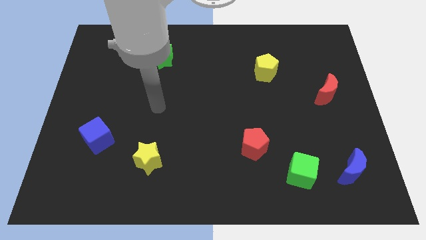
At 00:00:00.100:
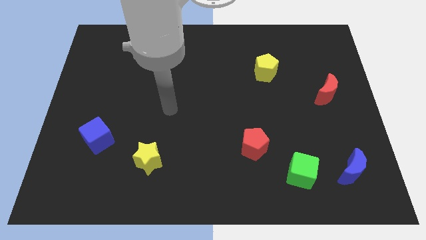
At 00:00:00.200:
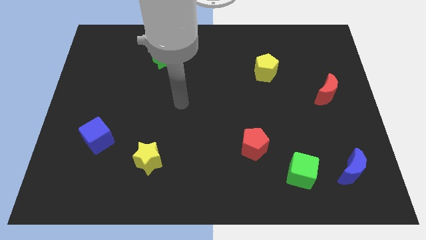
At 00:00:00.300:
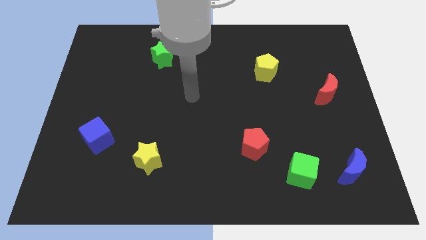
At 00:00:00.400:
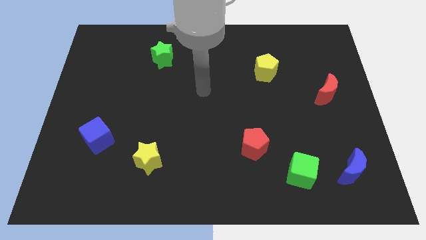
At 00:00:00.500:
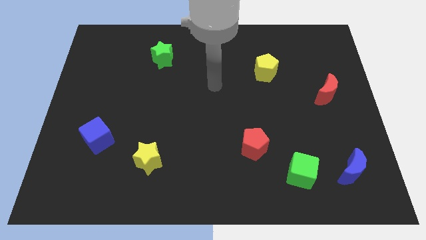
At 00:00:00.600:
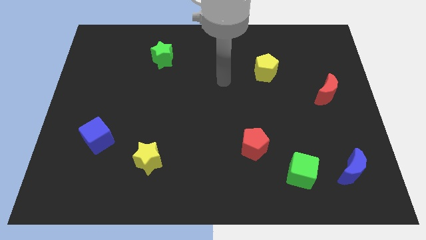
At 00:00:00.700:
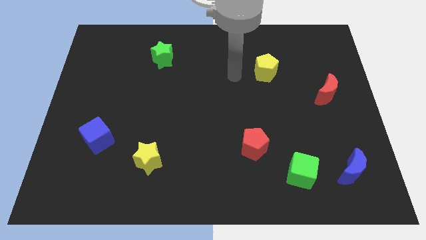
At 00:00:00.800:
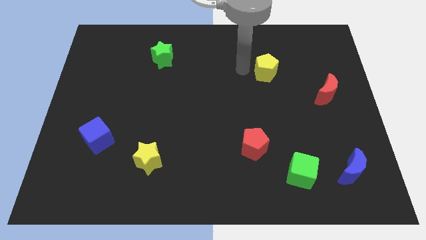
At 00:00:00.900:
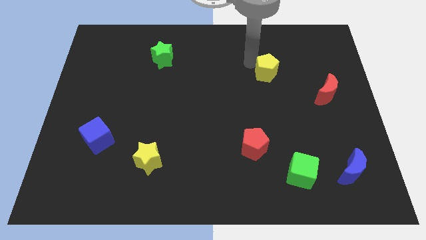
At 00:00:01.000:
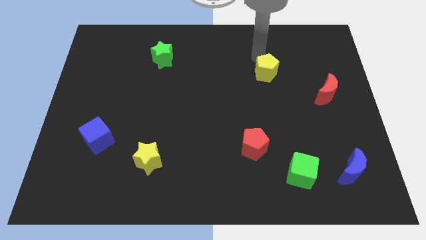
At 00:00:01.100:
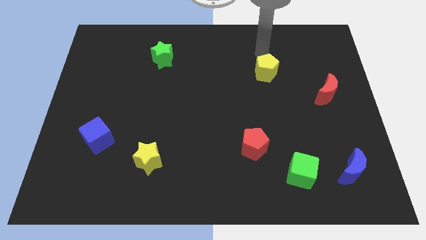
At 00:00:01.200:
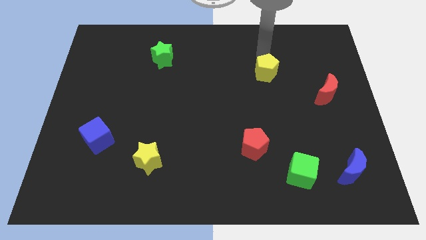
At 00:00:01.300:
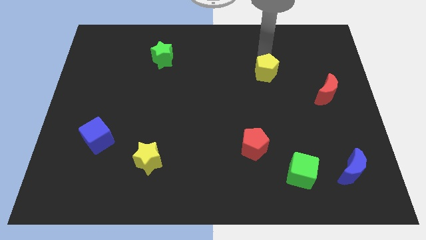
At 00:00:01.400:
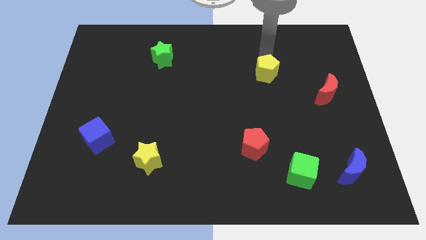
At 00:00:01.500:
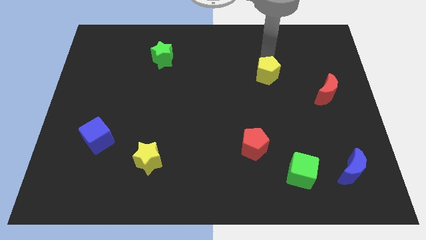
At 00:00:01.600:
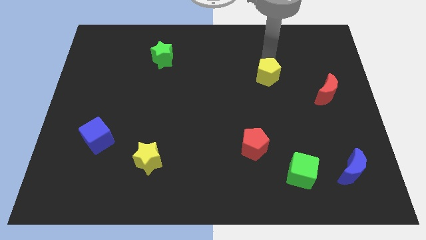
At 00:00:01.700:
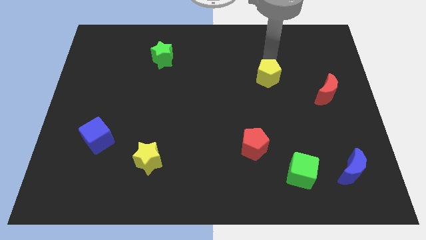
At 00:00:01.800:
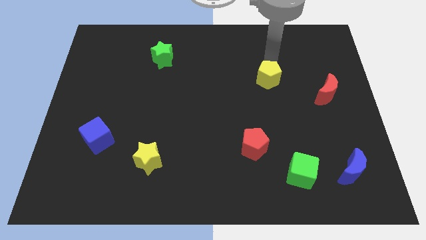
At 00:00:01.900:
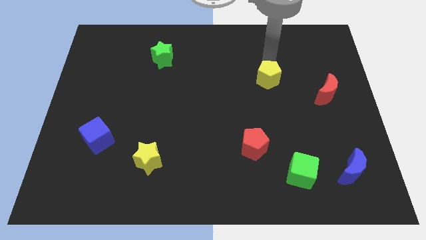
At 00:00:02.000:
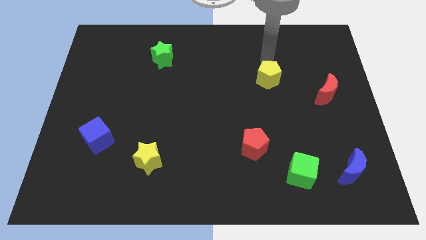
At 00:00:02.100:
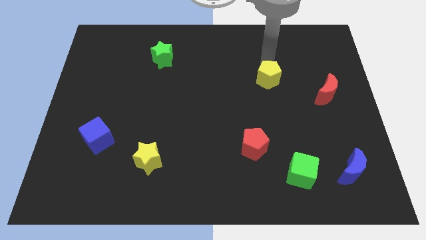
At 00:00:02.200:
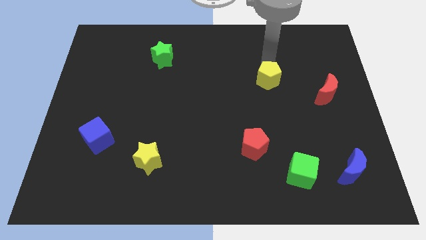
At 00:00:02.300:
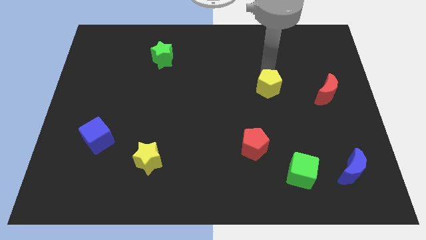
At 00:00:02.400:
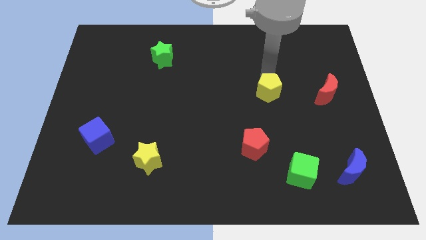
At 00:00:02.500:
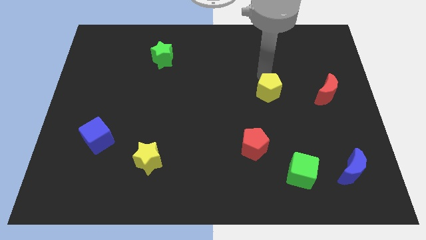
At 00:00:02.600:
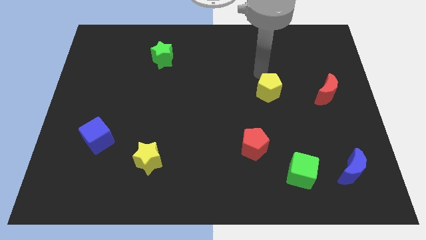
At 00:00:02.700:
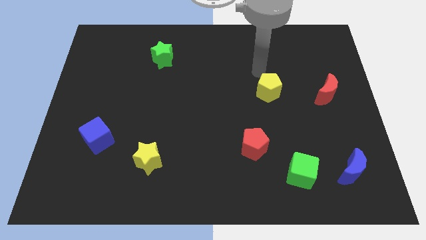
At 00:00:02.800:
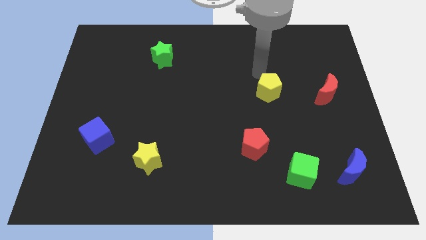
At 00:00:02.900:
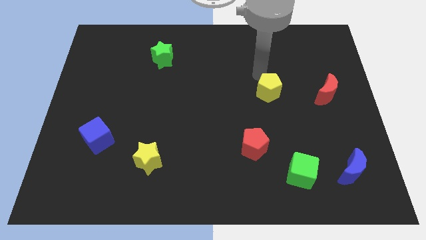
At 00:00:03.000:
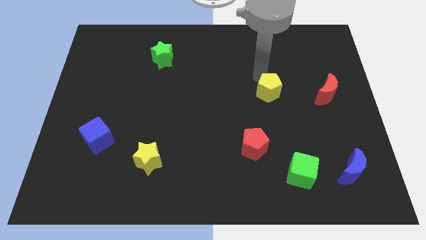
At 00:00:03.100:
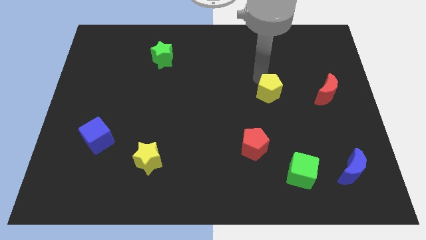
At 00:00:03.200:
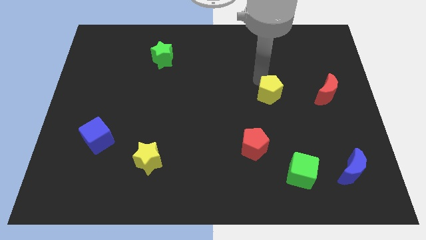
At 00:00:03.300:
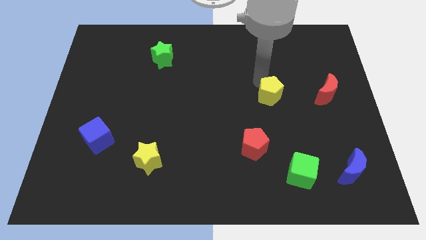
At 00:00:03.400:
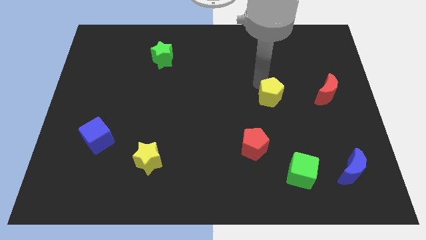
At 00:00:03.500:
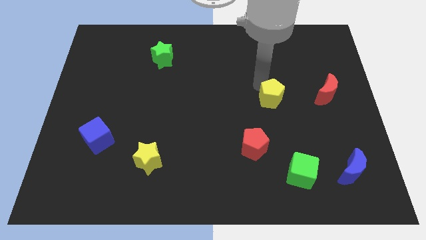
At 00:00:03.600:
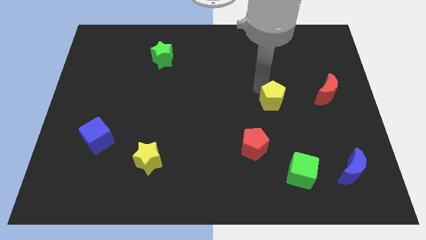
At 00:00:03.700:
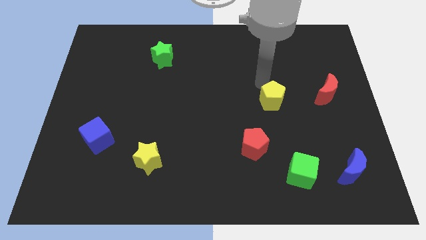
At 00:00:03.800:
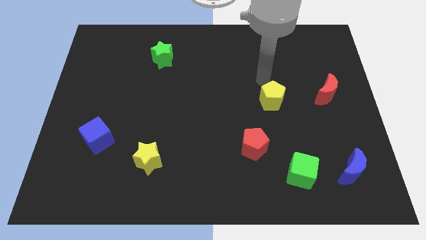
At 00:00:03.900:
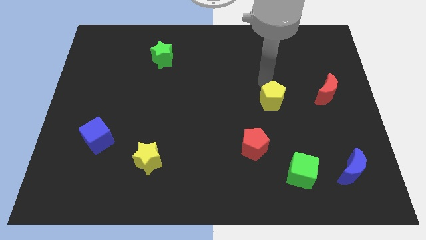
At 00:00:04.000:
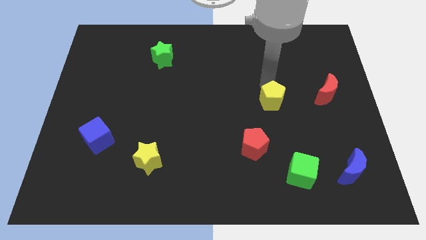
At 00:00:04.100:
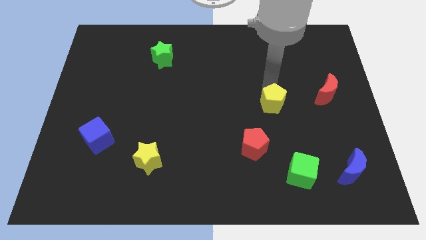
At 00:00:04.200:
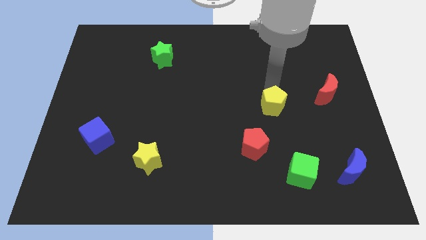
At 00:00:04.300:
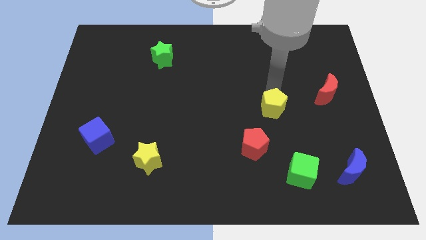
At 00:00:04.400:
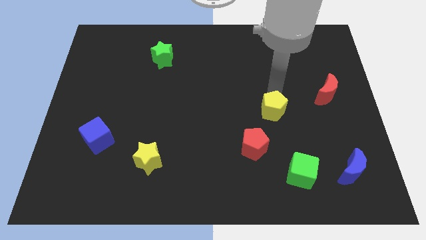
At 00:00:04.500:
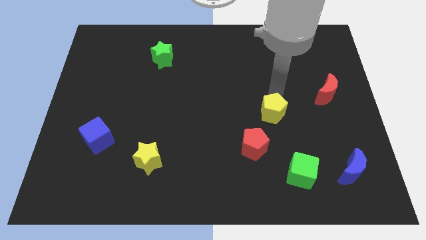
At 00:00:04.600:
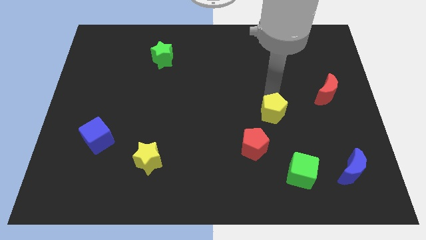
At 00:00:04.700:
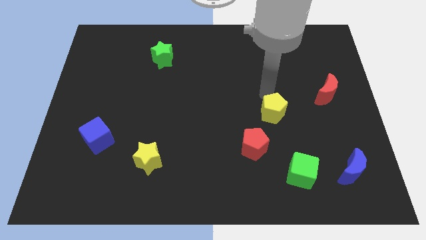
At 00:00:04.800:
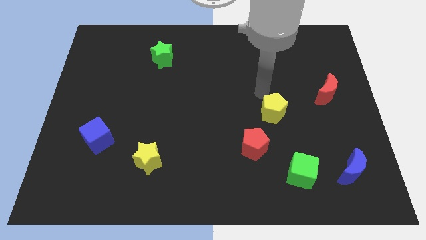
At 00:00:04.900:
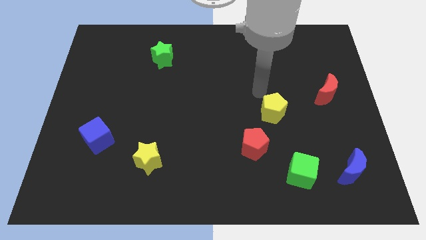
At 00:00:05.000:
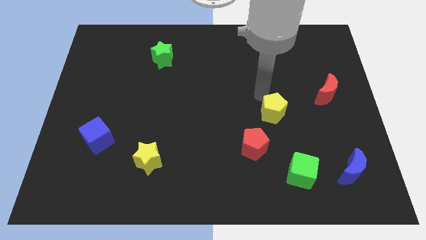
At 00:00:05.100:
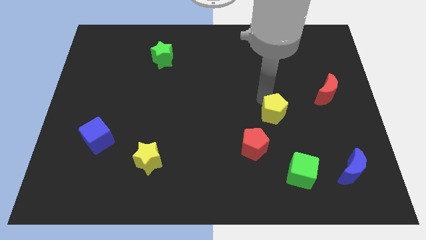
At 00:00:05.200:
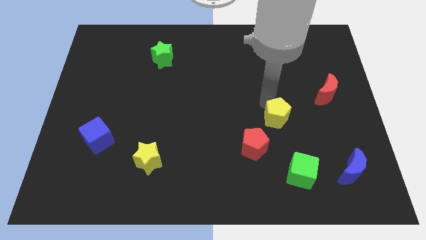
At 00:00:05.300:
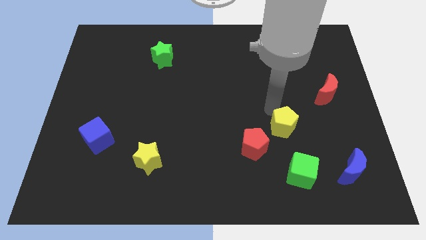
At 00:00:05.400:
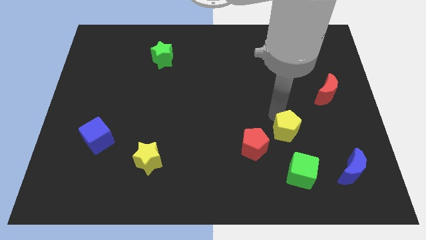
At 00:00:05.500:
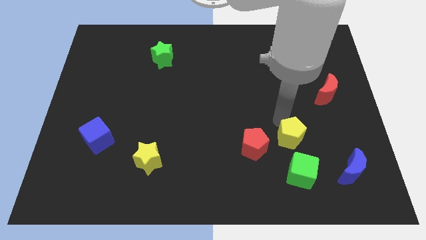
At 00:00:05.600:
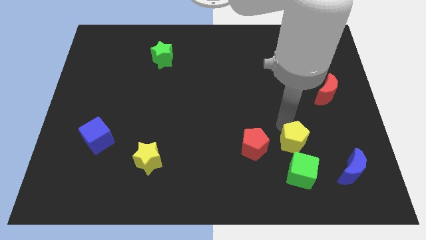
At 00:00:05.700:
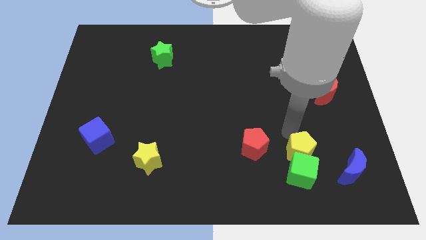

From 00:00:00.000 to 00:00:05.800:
put the yellow pentagon close to the green cube

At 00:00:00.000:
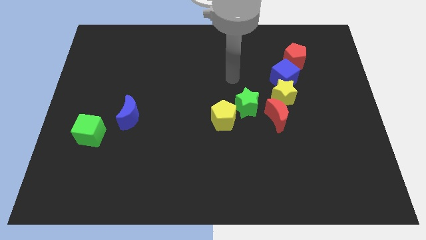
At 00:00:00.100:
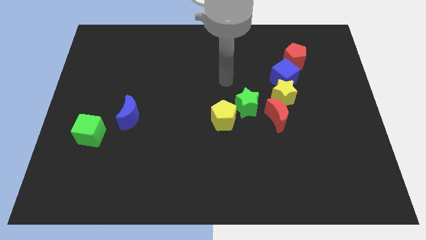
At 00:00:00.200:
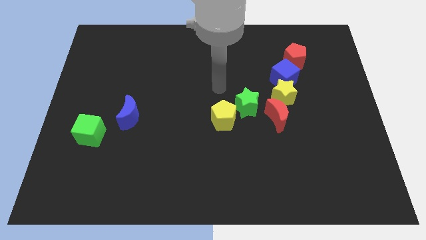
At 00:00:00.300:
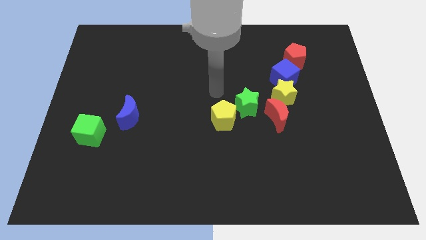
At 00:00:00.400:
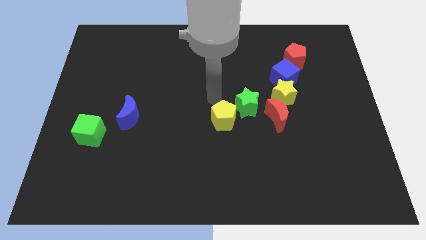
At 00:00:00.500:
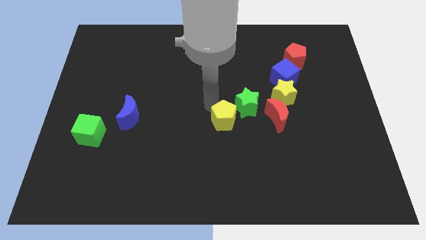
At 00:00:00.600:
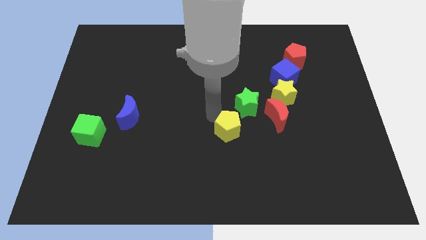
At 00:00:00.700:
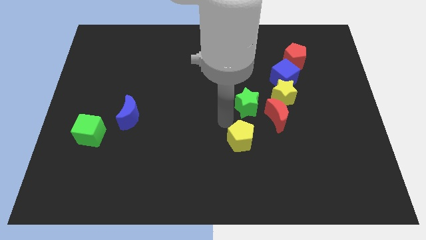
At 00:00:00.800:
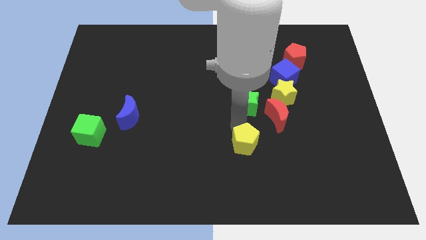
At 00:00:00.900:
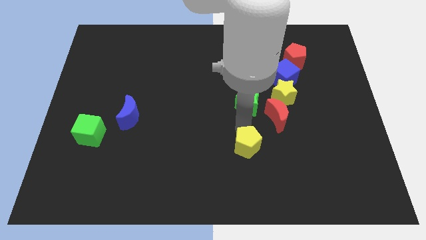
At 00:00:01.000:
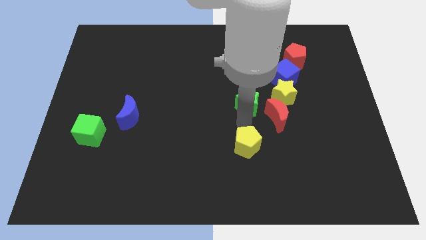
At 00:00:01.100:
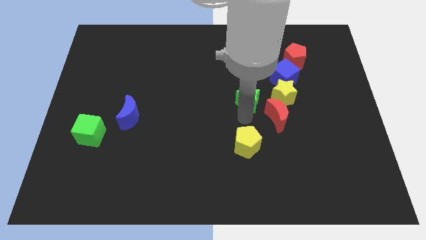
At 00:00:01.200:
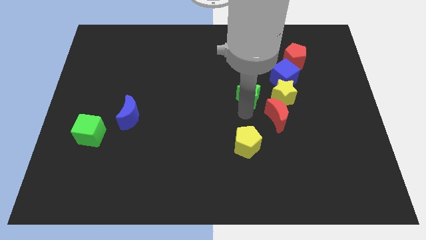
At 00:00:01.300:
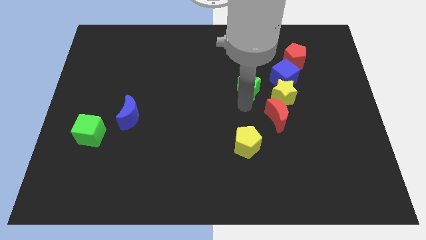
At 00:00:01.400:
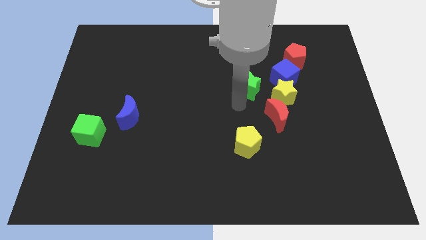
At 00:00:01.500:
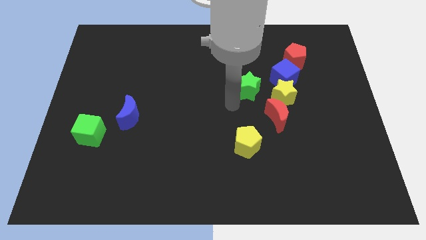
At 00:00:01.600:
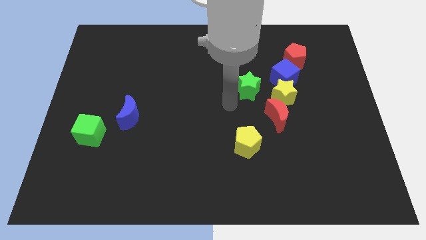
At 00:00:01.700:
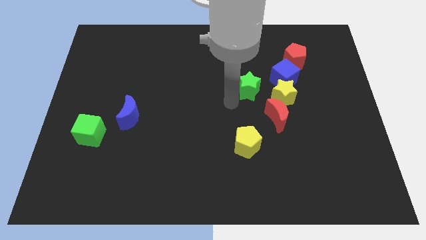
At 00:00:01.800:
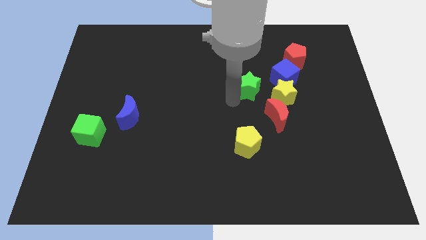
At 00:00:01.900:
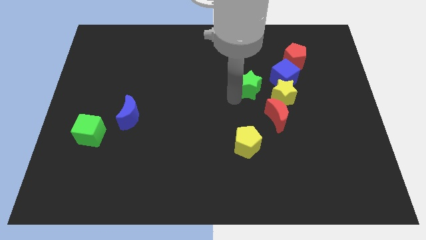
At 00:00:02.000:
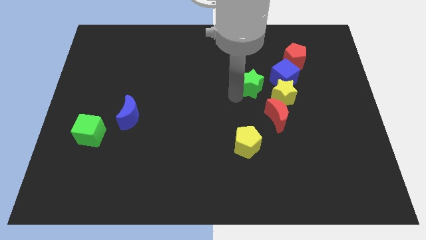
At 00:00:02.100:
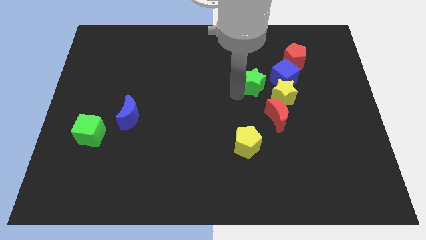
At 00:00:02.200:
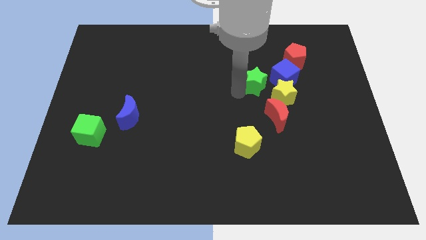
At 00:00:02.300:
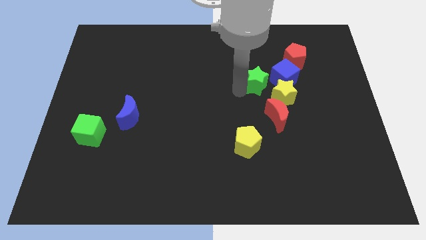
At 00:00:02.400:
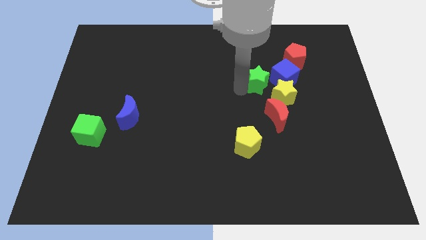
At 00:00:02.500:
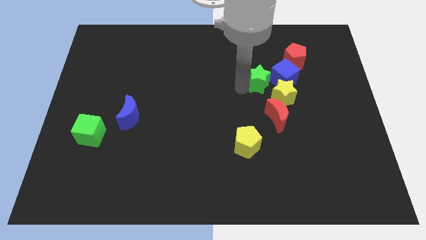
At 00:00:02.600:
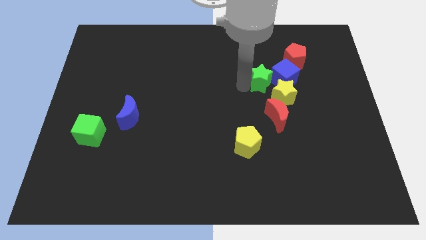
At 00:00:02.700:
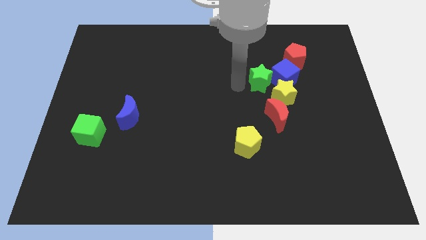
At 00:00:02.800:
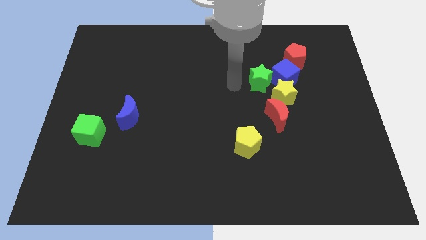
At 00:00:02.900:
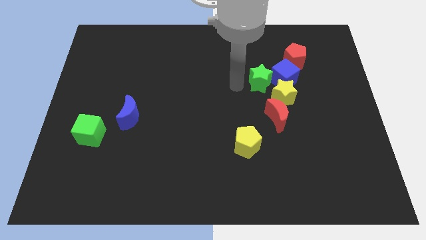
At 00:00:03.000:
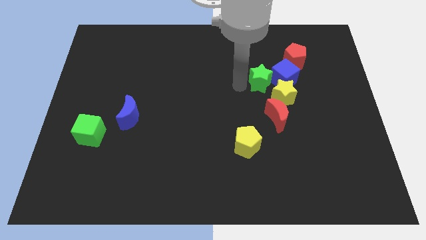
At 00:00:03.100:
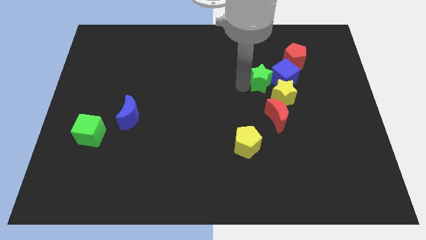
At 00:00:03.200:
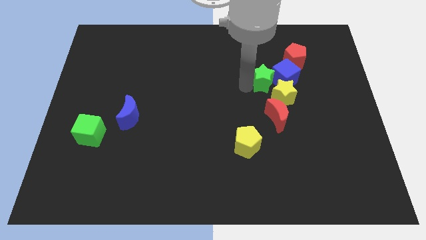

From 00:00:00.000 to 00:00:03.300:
slide the green star to the blue cube
